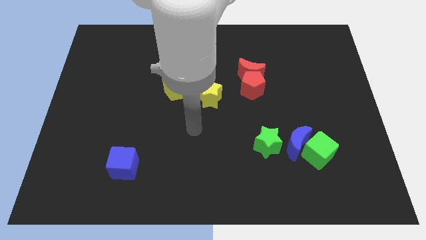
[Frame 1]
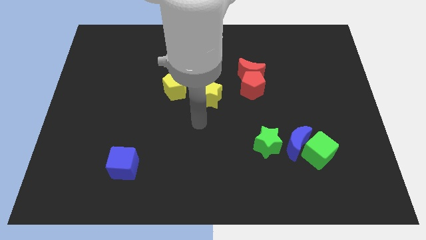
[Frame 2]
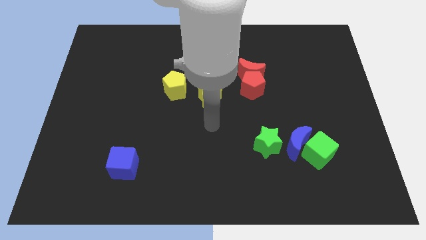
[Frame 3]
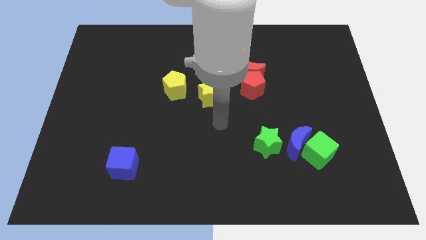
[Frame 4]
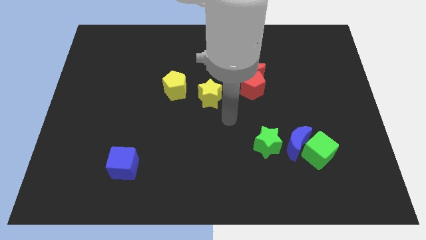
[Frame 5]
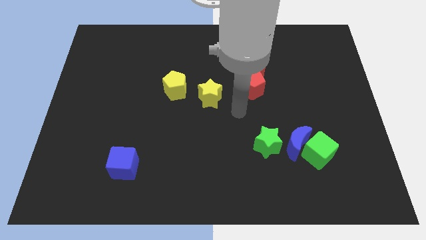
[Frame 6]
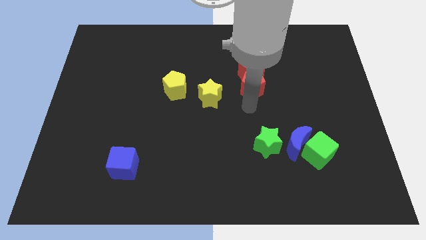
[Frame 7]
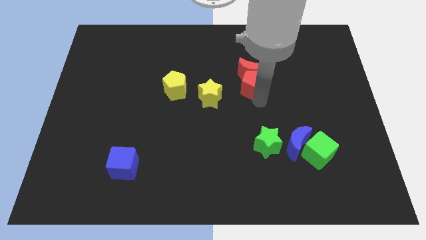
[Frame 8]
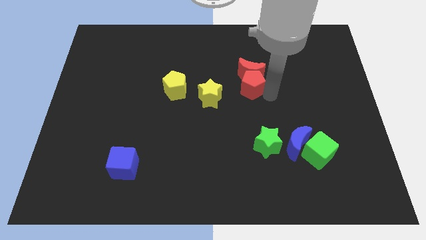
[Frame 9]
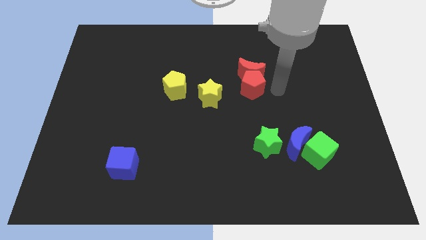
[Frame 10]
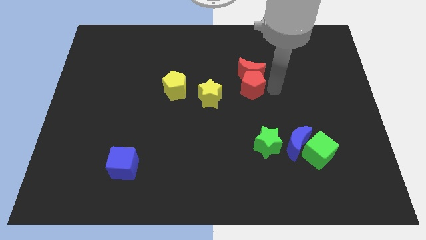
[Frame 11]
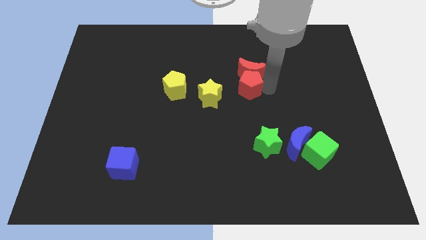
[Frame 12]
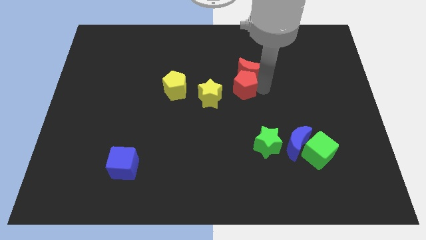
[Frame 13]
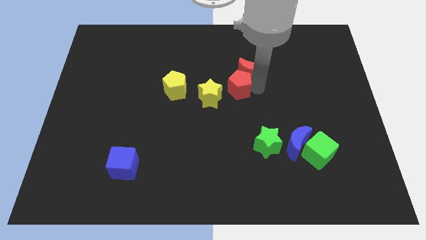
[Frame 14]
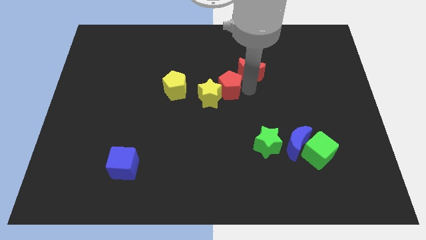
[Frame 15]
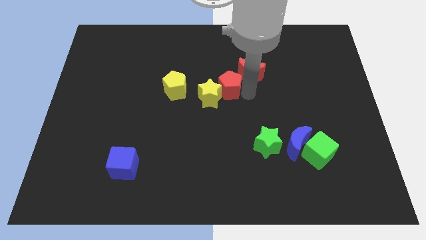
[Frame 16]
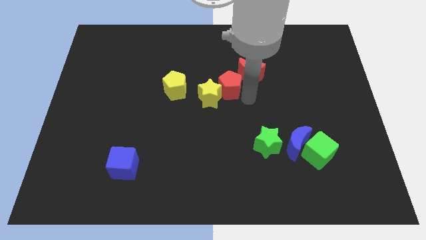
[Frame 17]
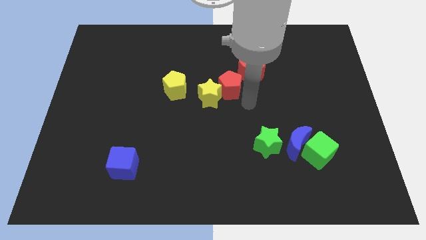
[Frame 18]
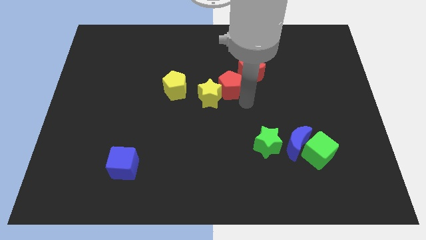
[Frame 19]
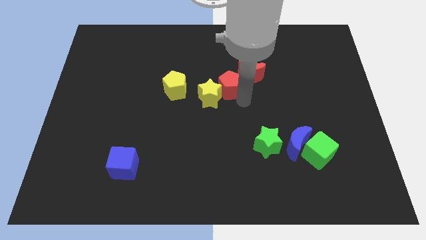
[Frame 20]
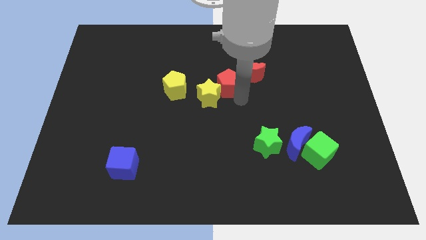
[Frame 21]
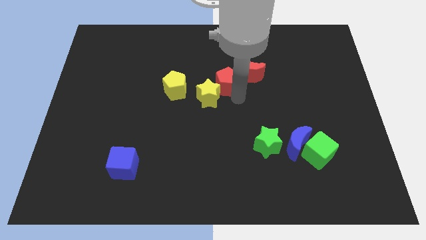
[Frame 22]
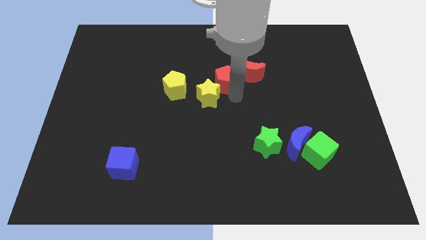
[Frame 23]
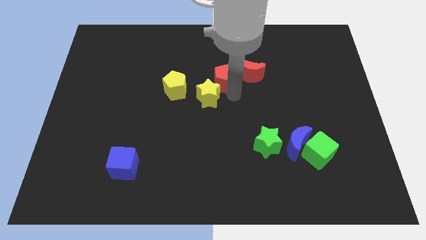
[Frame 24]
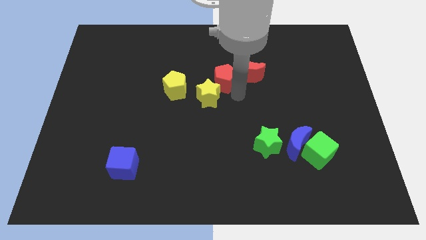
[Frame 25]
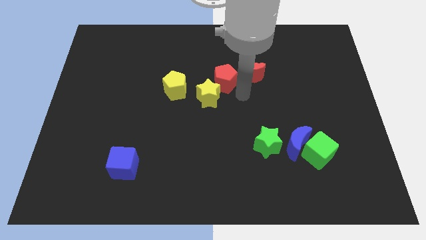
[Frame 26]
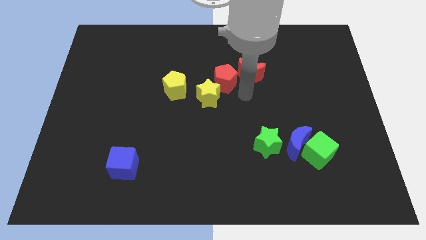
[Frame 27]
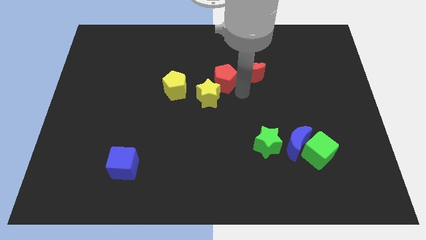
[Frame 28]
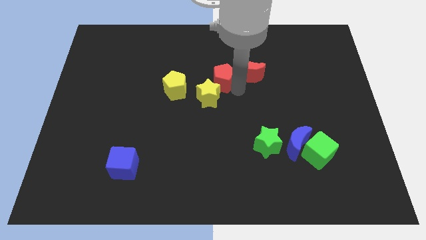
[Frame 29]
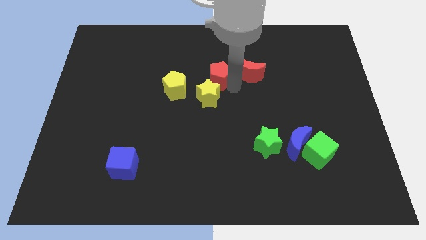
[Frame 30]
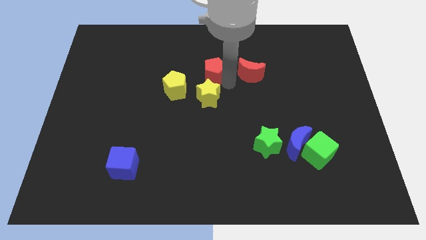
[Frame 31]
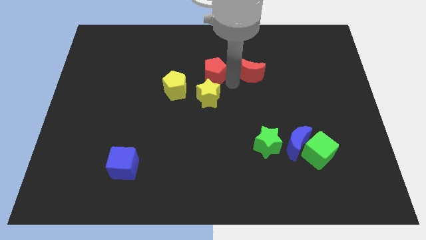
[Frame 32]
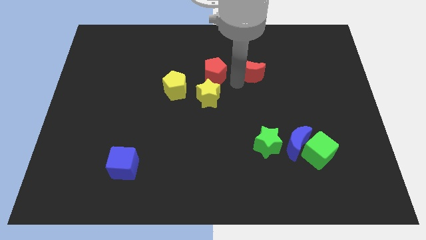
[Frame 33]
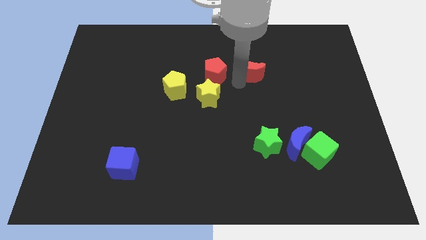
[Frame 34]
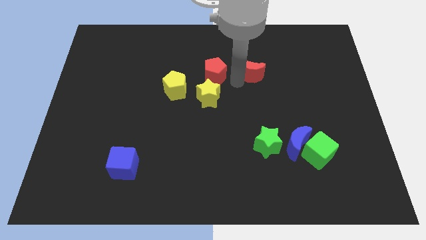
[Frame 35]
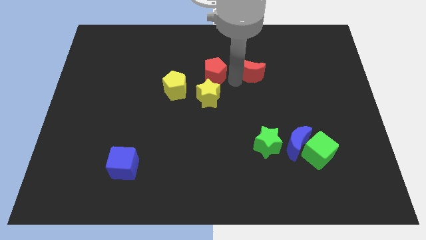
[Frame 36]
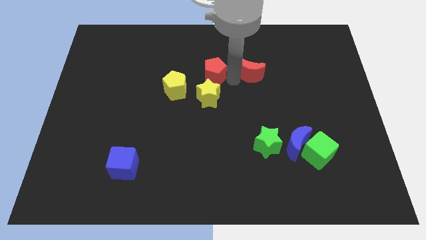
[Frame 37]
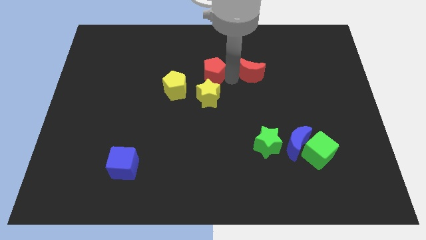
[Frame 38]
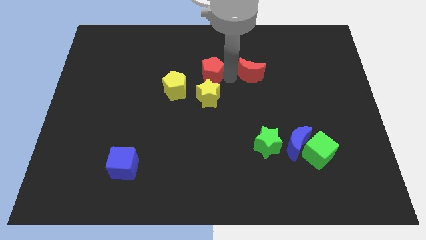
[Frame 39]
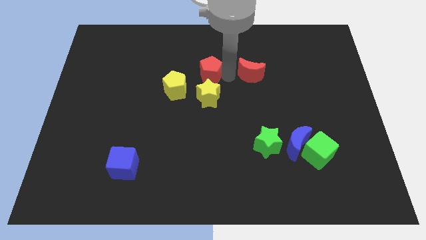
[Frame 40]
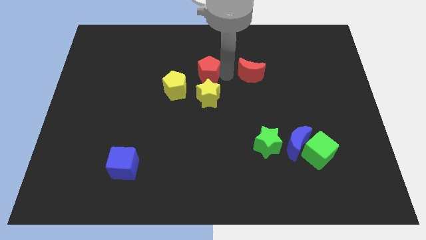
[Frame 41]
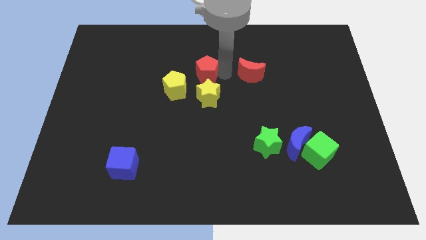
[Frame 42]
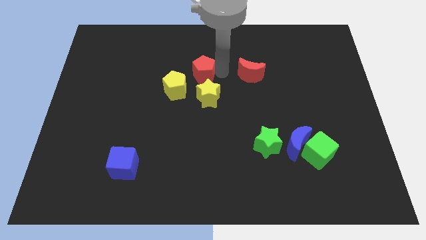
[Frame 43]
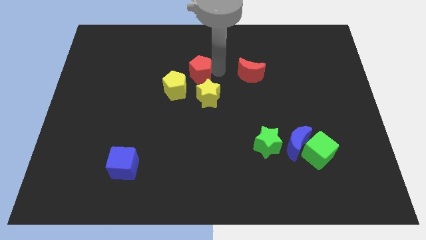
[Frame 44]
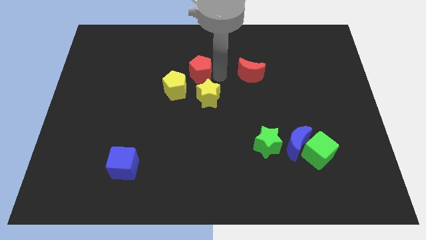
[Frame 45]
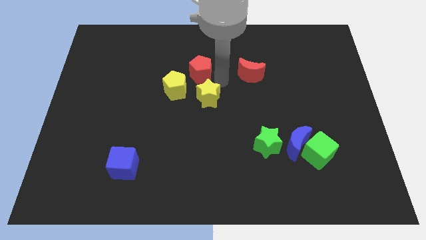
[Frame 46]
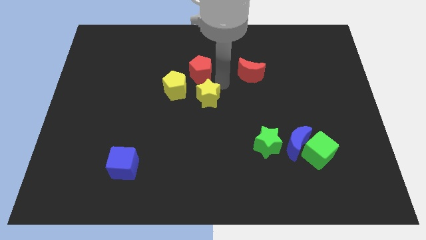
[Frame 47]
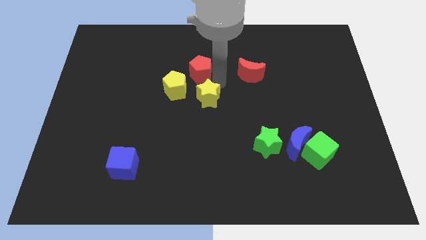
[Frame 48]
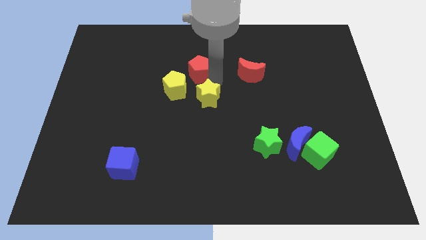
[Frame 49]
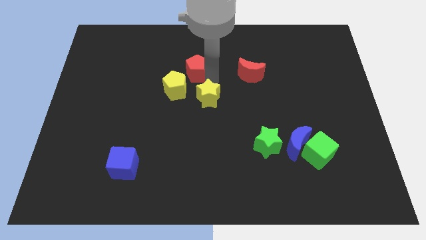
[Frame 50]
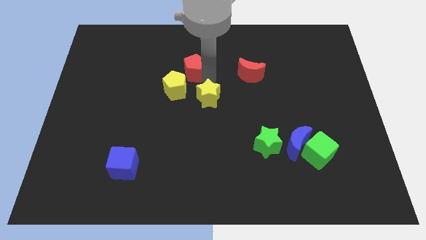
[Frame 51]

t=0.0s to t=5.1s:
put the red pentagon above the yellow pentagon
